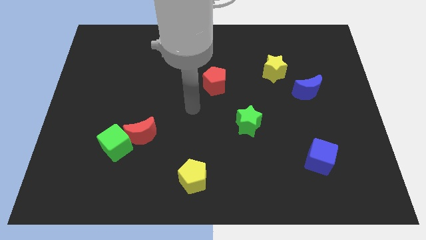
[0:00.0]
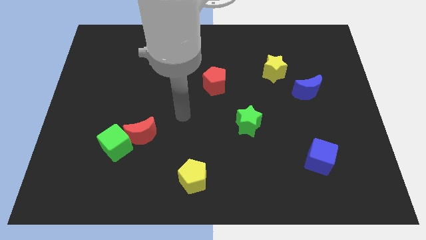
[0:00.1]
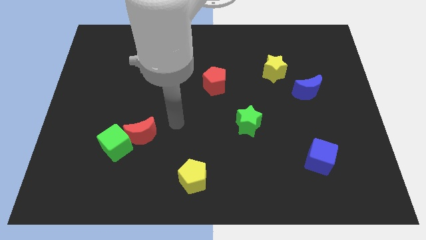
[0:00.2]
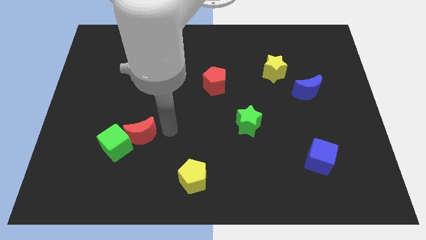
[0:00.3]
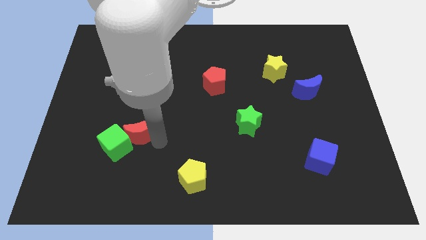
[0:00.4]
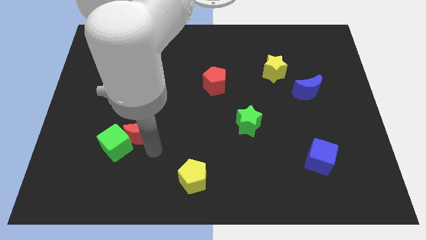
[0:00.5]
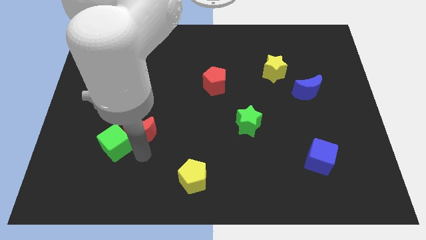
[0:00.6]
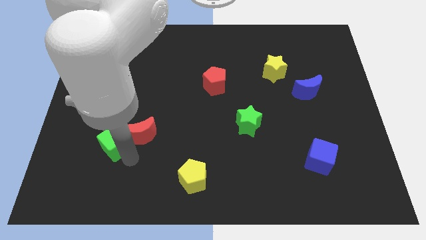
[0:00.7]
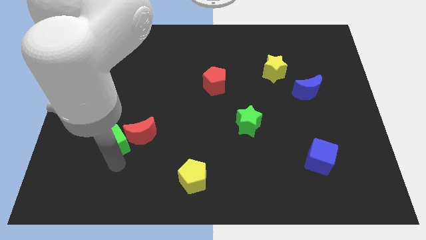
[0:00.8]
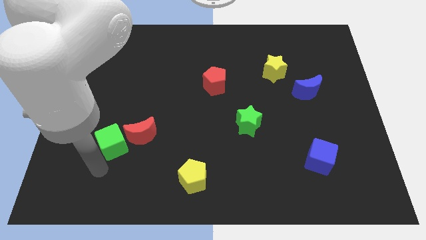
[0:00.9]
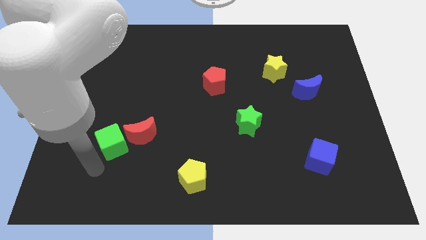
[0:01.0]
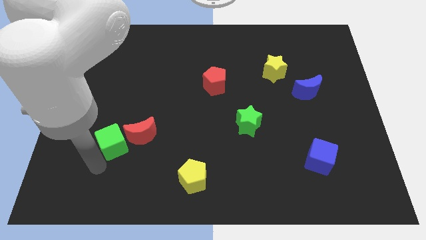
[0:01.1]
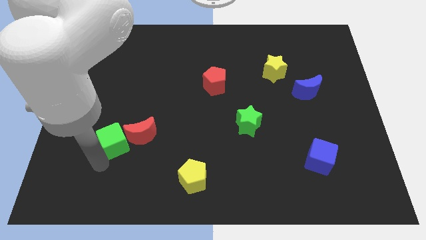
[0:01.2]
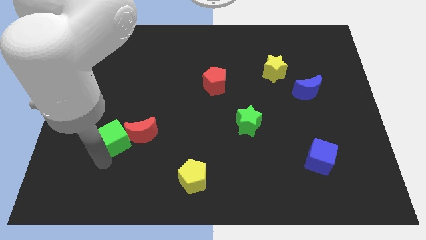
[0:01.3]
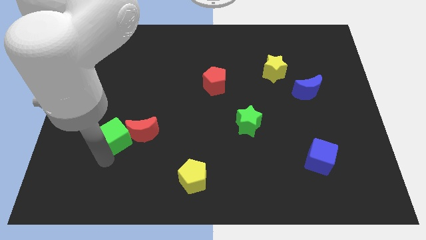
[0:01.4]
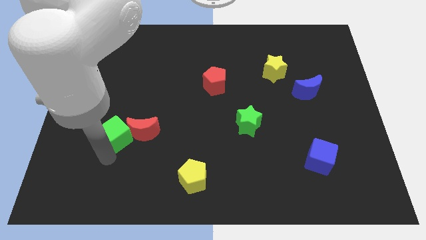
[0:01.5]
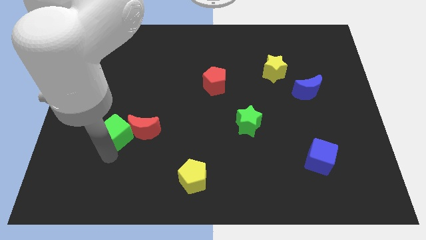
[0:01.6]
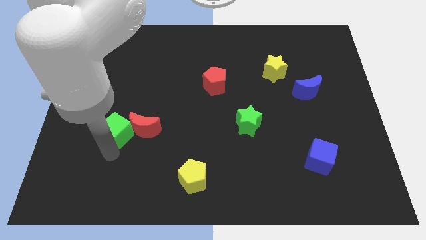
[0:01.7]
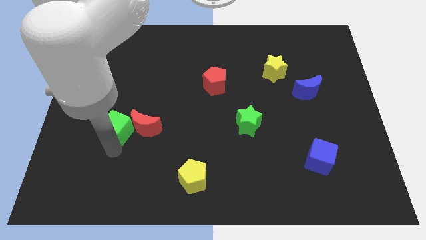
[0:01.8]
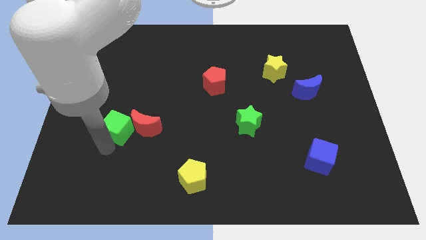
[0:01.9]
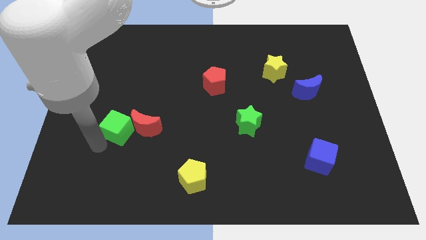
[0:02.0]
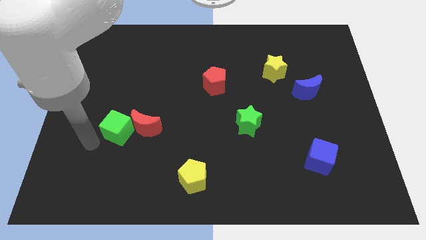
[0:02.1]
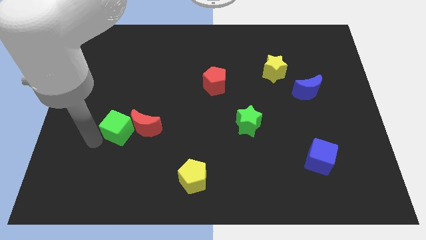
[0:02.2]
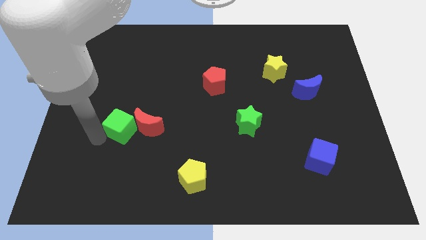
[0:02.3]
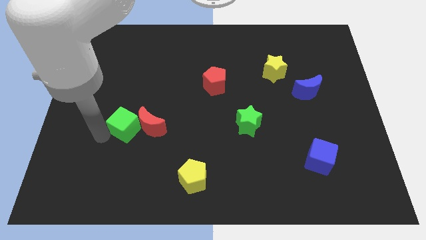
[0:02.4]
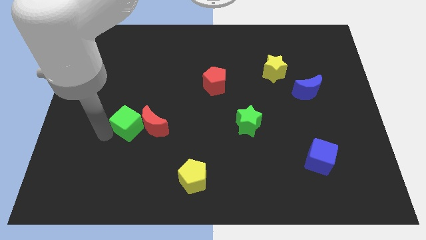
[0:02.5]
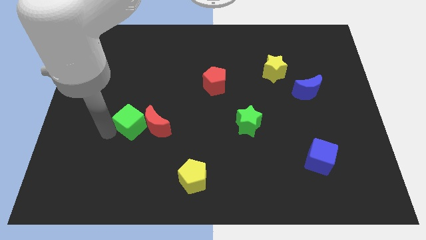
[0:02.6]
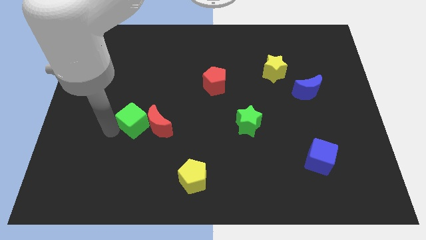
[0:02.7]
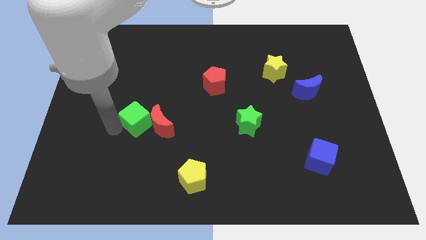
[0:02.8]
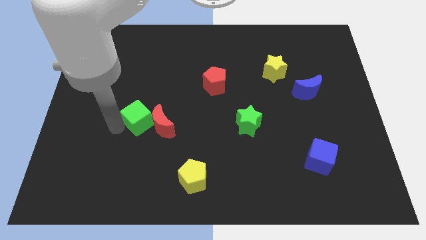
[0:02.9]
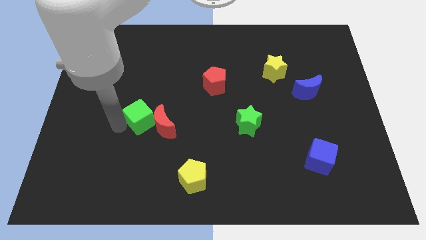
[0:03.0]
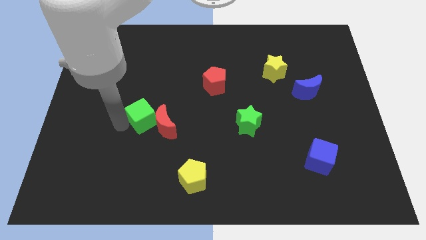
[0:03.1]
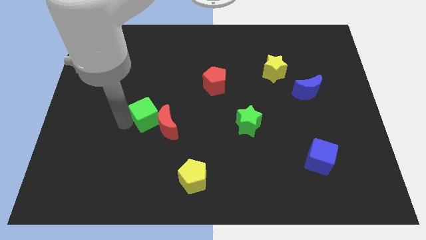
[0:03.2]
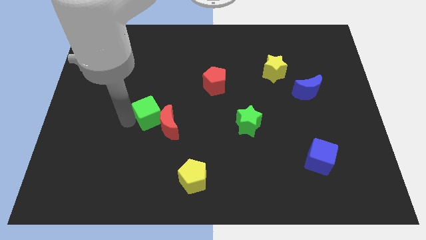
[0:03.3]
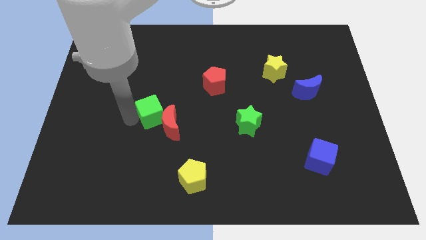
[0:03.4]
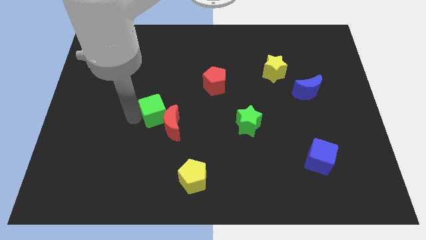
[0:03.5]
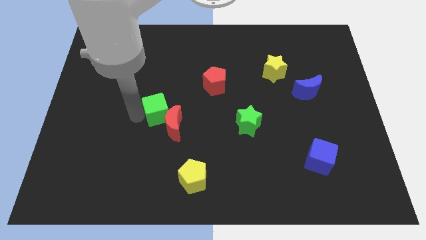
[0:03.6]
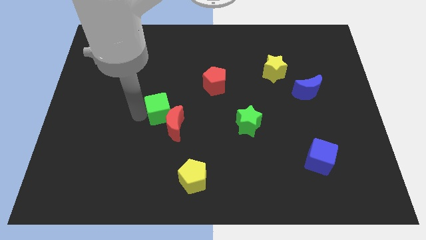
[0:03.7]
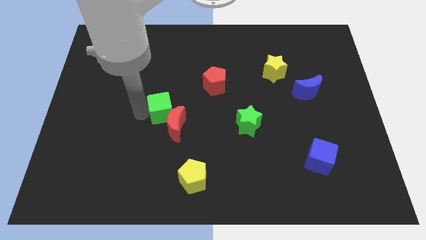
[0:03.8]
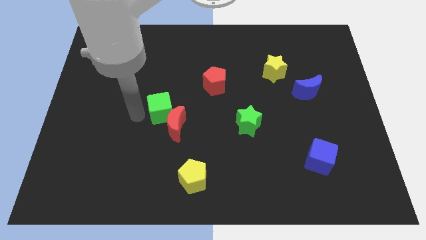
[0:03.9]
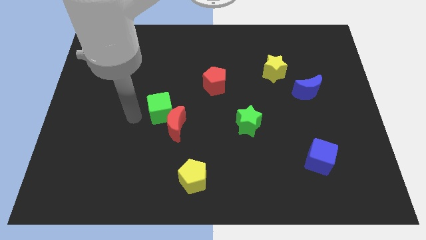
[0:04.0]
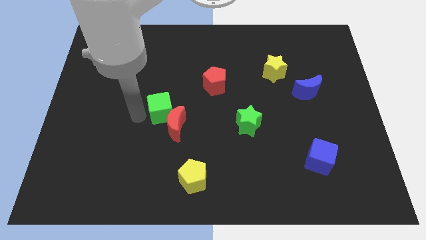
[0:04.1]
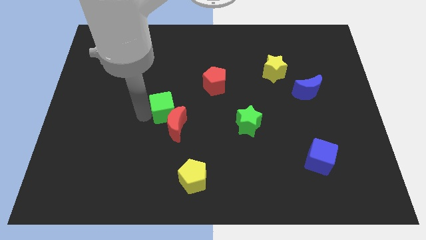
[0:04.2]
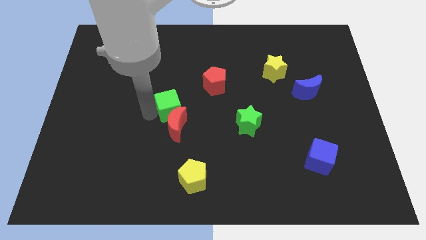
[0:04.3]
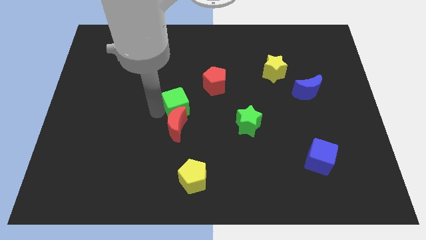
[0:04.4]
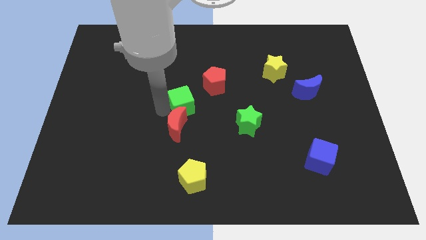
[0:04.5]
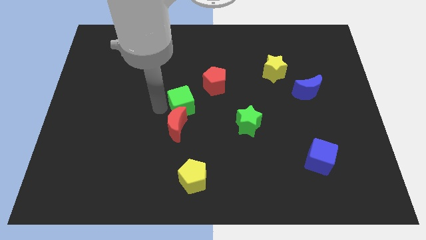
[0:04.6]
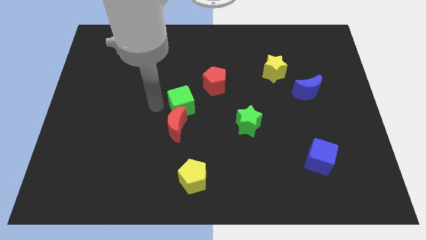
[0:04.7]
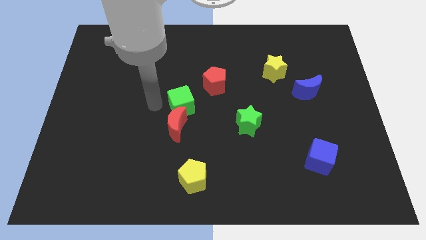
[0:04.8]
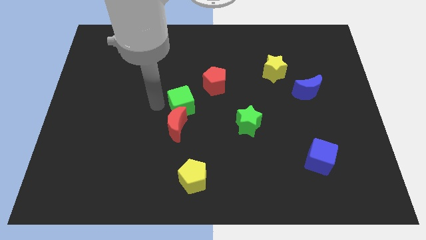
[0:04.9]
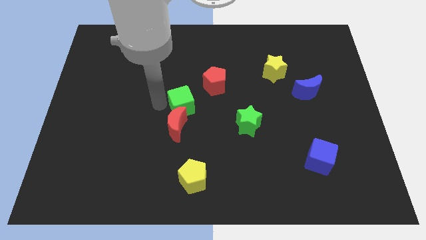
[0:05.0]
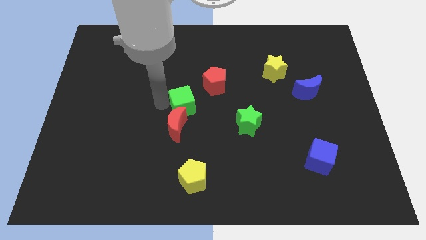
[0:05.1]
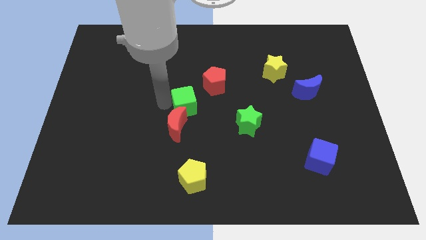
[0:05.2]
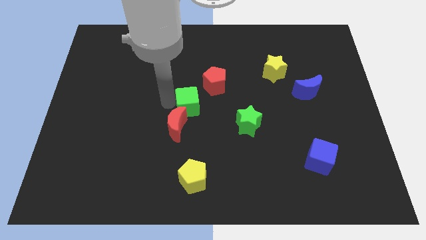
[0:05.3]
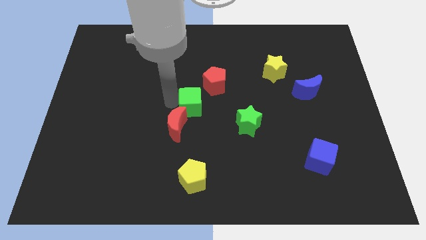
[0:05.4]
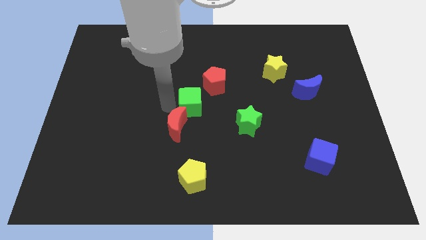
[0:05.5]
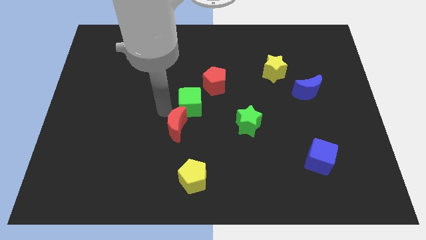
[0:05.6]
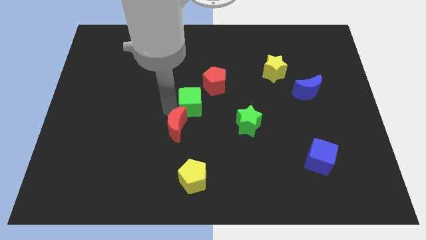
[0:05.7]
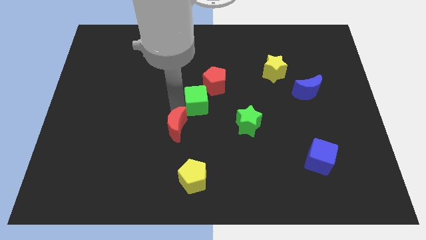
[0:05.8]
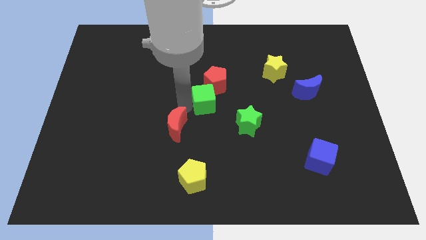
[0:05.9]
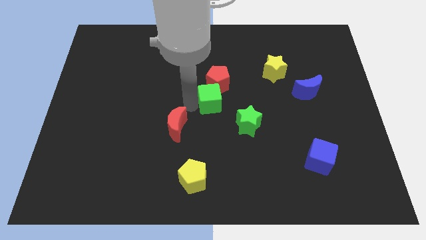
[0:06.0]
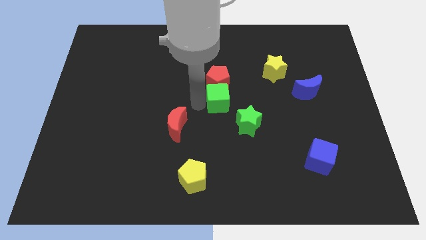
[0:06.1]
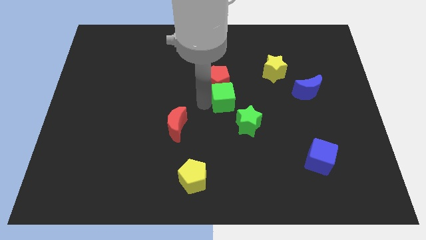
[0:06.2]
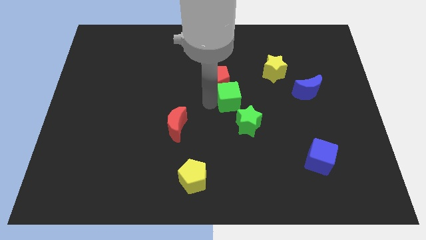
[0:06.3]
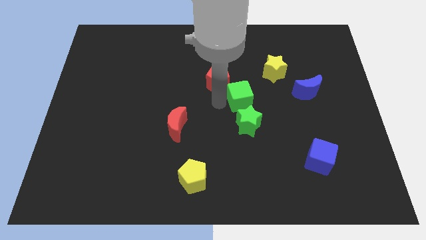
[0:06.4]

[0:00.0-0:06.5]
push the green cube just right of the red pentagon

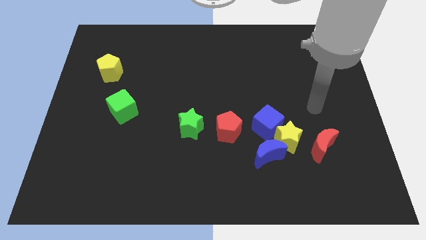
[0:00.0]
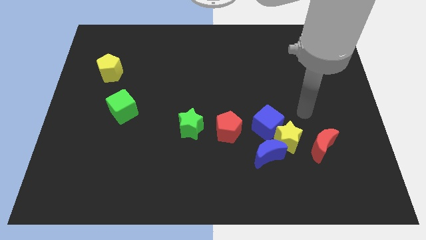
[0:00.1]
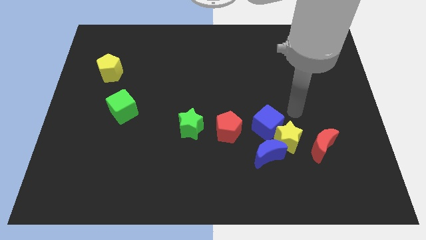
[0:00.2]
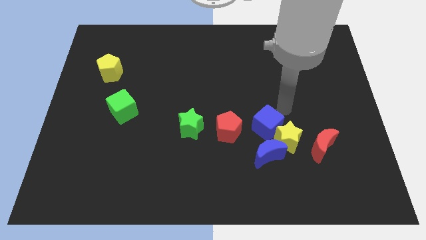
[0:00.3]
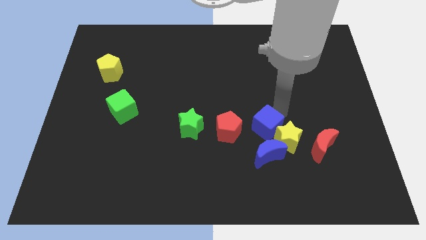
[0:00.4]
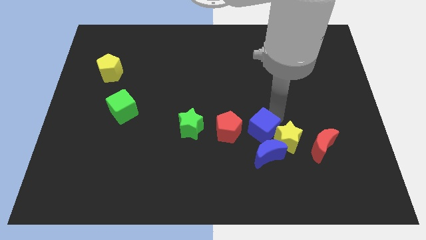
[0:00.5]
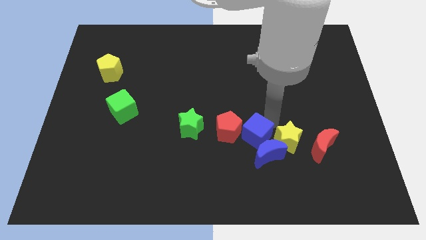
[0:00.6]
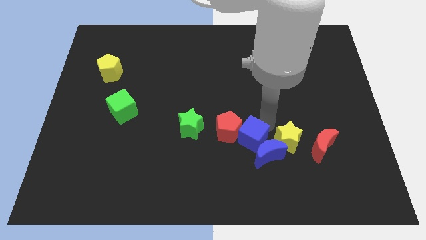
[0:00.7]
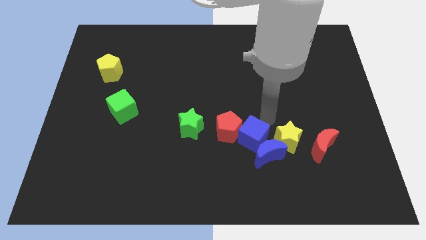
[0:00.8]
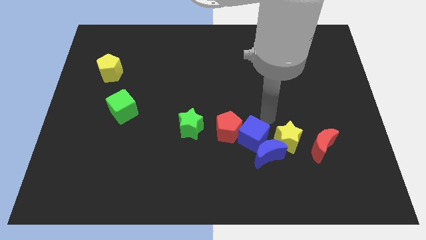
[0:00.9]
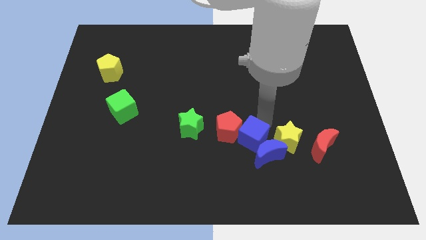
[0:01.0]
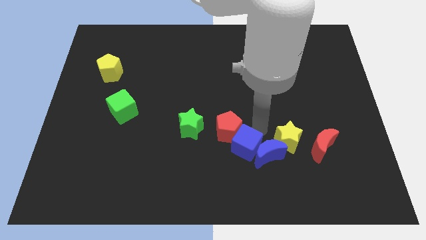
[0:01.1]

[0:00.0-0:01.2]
move the blue cube below the red pentagon

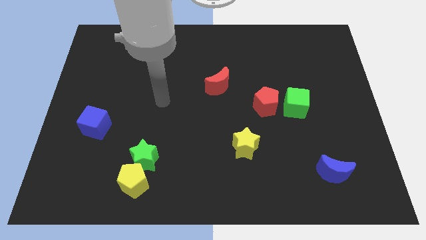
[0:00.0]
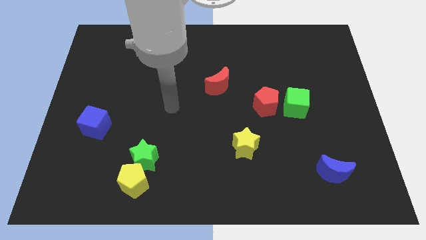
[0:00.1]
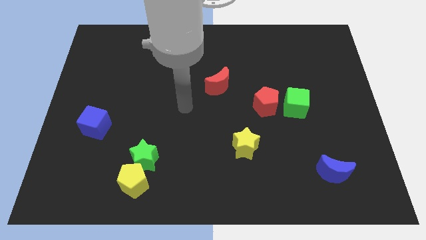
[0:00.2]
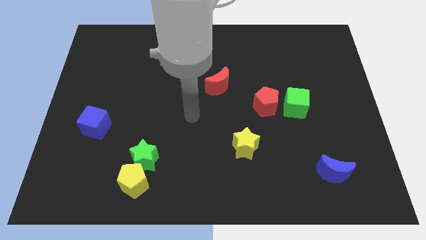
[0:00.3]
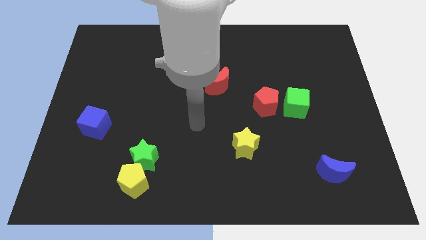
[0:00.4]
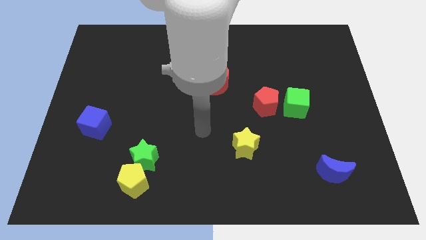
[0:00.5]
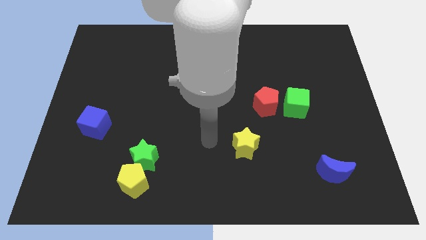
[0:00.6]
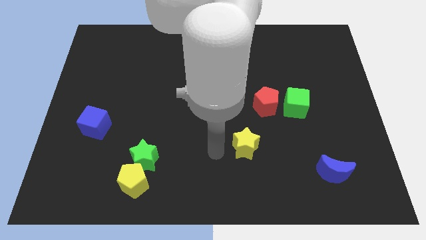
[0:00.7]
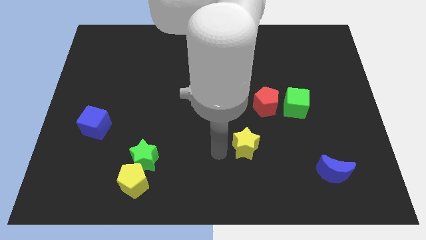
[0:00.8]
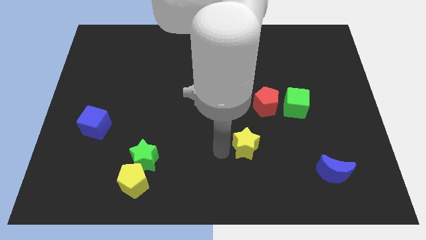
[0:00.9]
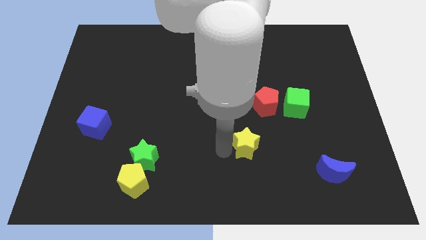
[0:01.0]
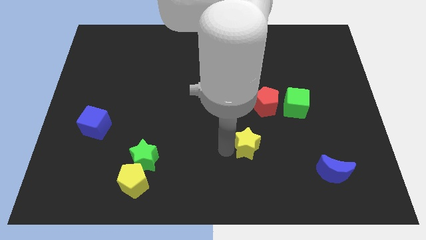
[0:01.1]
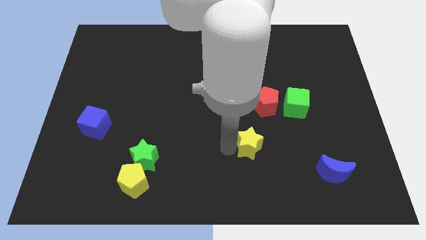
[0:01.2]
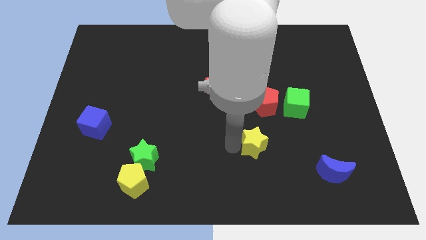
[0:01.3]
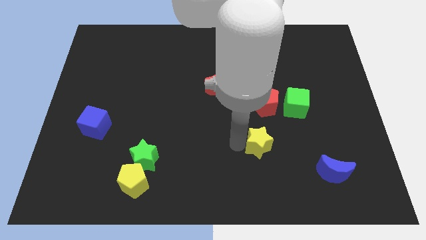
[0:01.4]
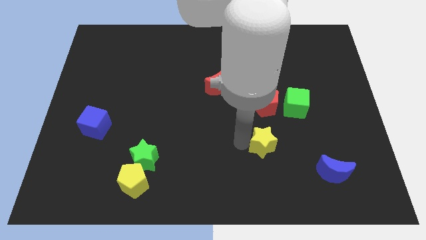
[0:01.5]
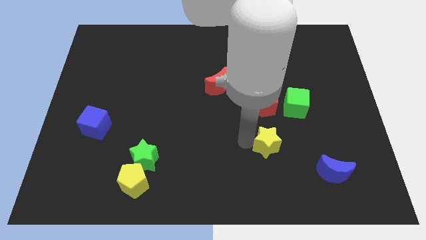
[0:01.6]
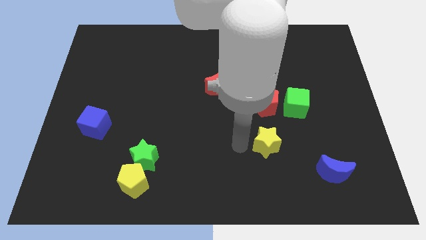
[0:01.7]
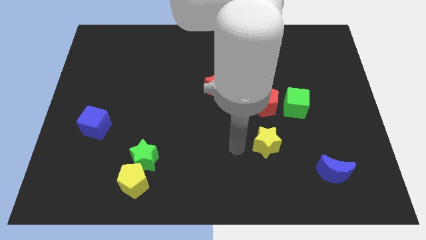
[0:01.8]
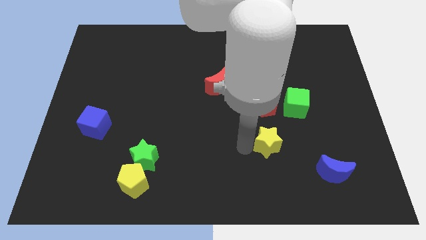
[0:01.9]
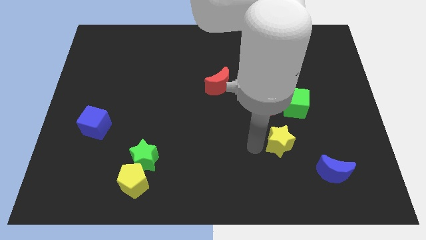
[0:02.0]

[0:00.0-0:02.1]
push the yellow star to the bottom side of the green cube
